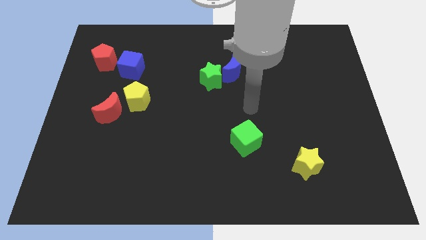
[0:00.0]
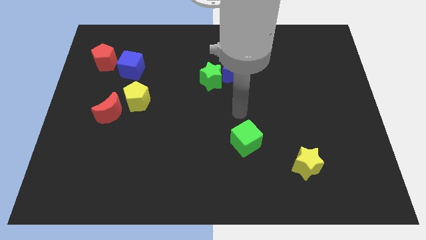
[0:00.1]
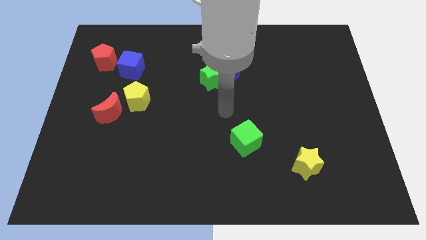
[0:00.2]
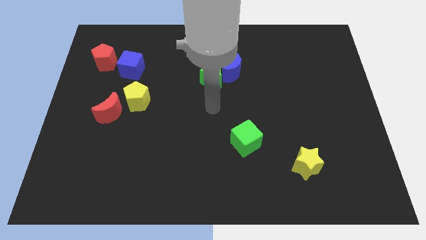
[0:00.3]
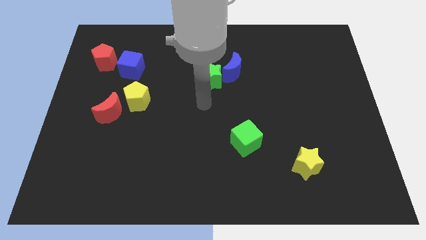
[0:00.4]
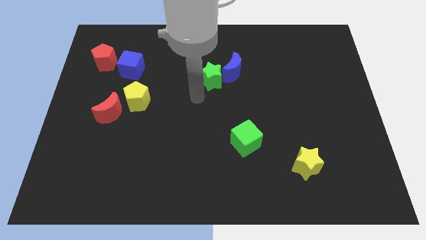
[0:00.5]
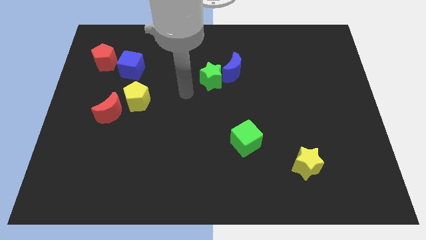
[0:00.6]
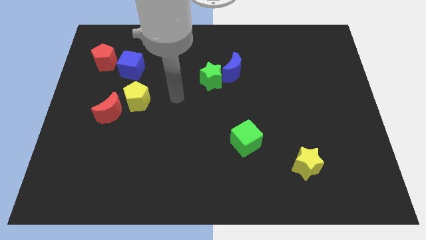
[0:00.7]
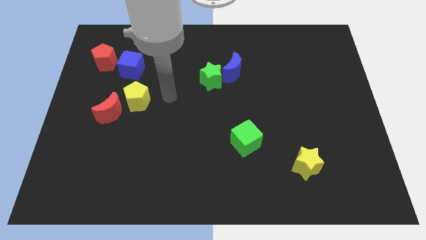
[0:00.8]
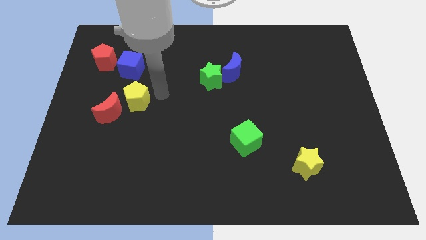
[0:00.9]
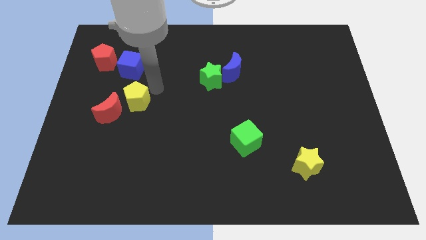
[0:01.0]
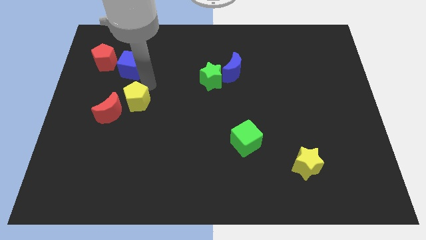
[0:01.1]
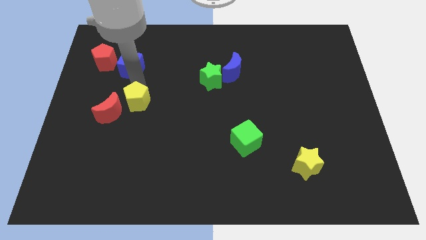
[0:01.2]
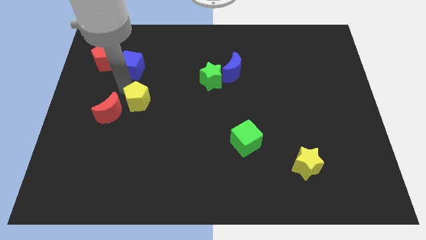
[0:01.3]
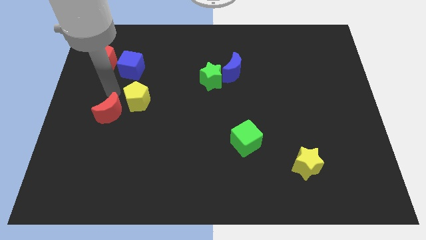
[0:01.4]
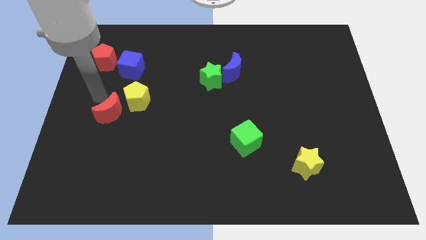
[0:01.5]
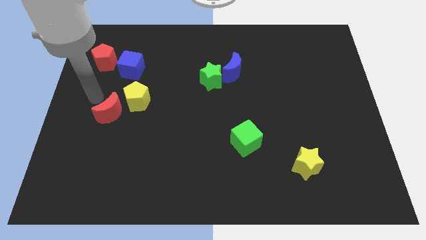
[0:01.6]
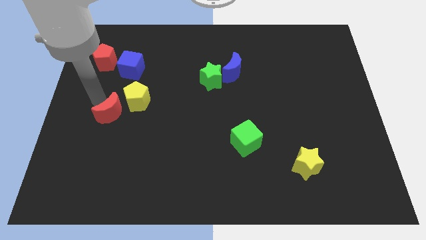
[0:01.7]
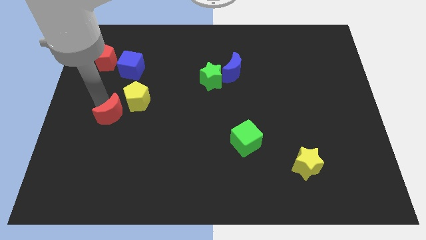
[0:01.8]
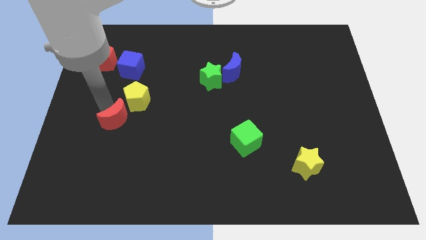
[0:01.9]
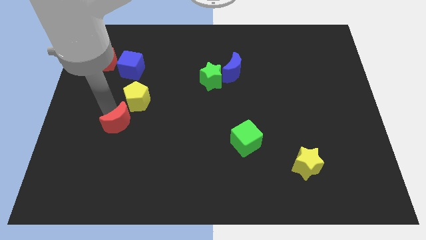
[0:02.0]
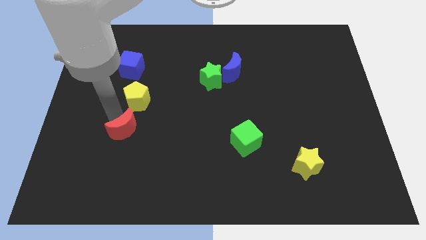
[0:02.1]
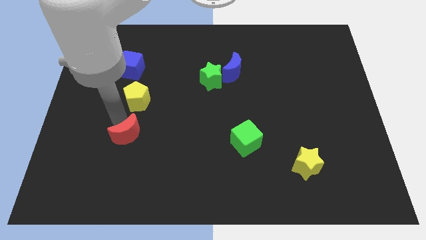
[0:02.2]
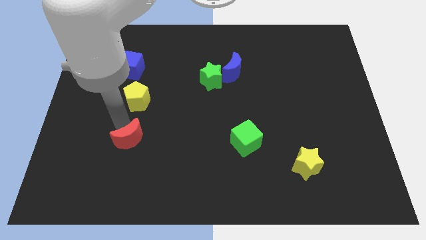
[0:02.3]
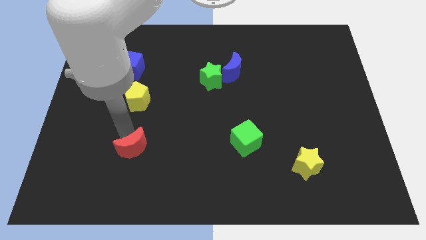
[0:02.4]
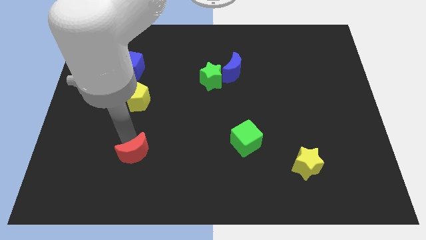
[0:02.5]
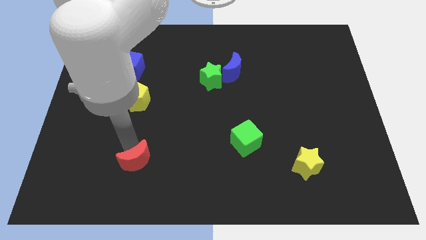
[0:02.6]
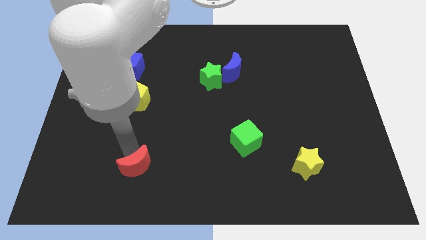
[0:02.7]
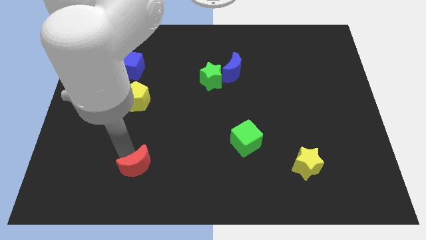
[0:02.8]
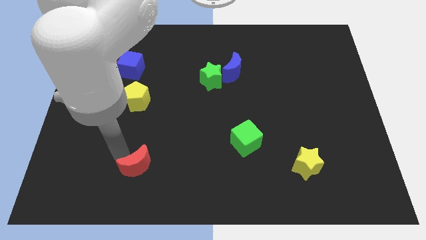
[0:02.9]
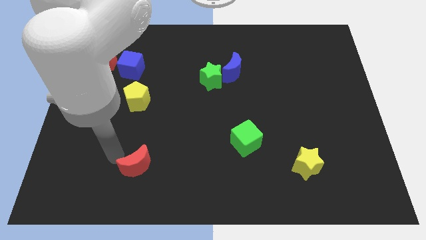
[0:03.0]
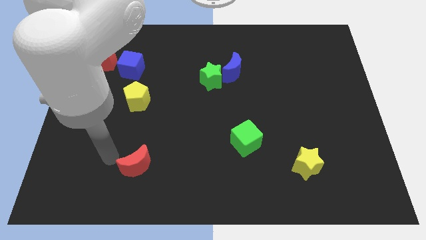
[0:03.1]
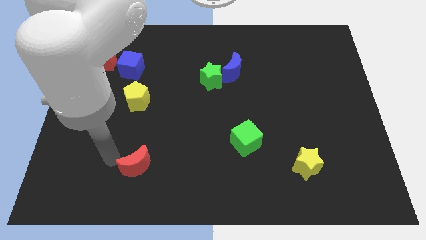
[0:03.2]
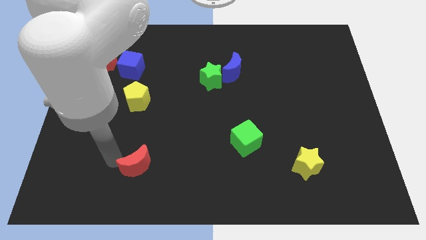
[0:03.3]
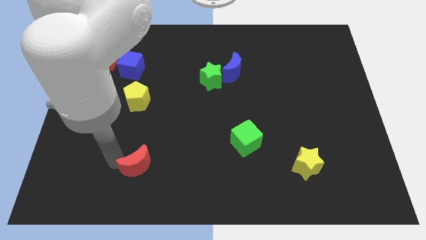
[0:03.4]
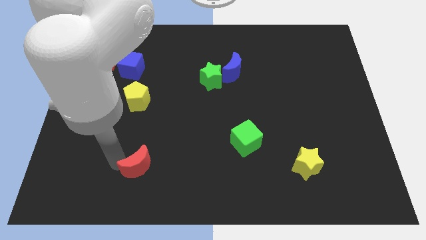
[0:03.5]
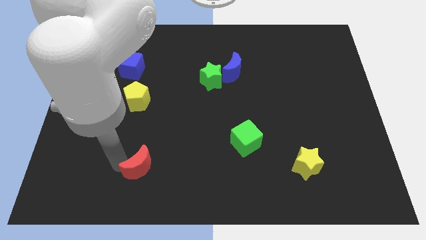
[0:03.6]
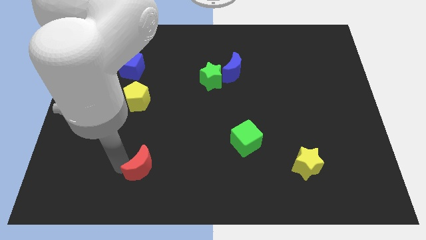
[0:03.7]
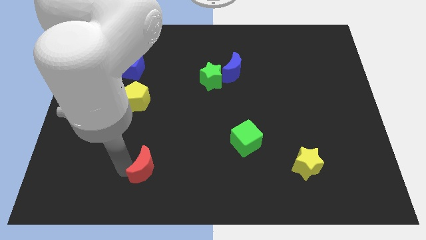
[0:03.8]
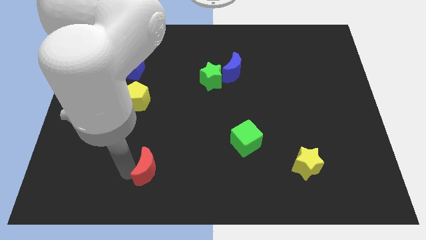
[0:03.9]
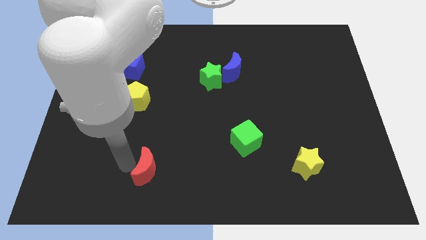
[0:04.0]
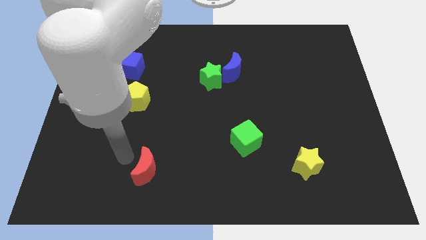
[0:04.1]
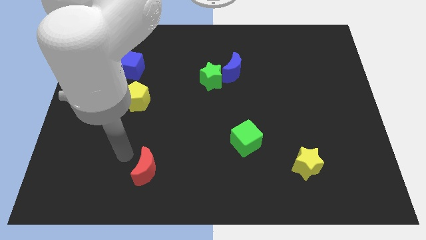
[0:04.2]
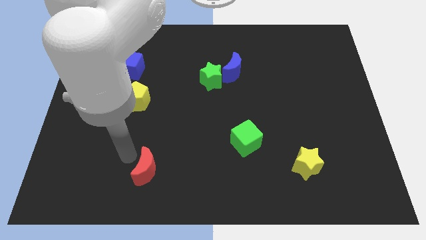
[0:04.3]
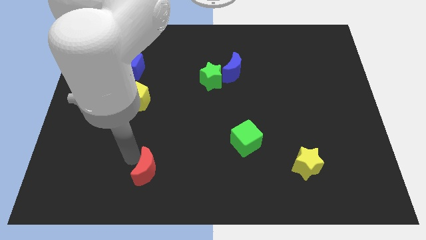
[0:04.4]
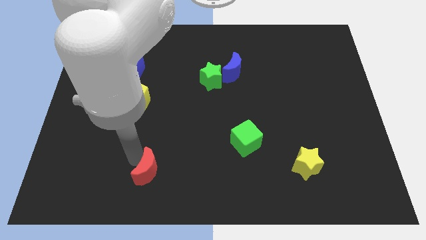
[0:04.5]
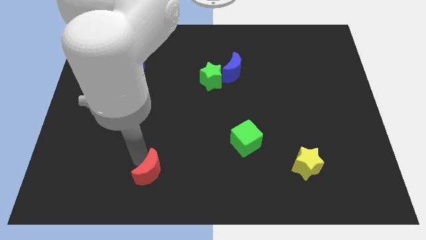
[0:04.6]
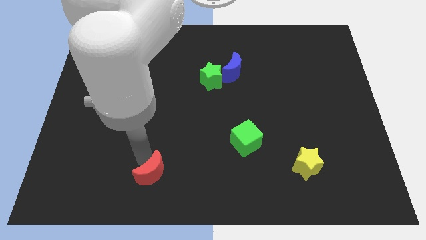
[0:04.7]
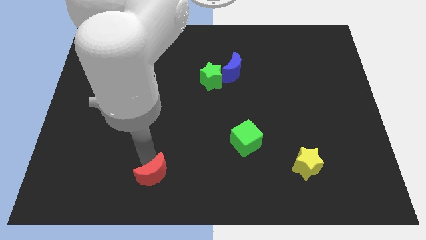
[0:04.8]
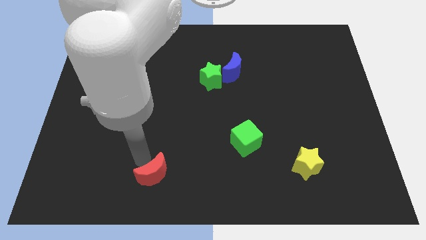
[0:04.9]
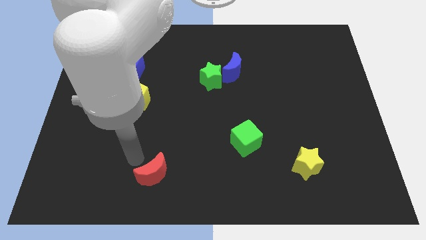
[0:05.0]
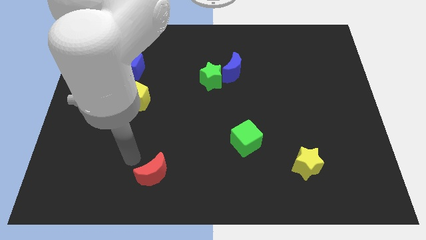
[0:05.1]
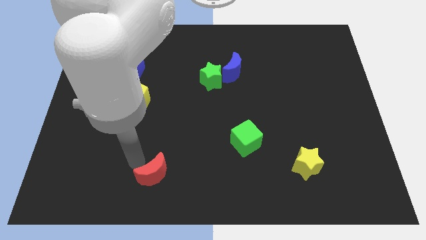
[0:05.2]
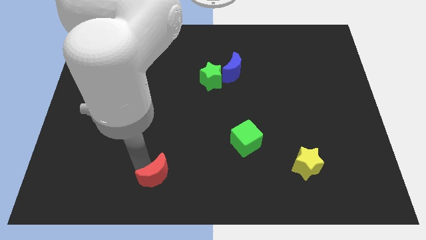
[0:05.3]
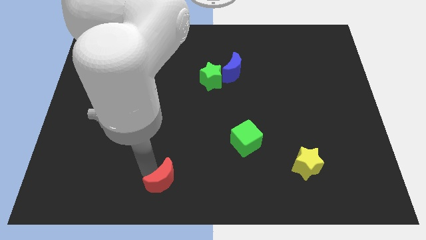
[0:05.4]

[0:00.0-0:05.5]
slide the red moon to the bottom side
